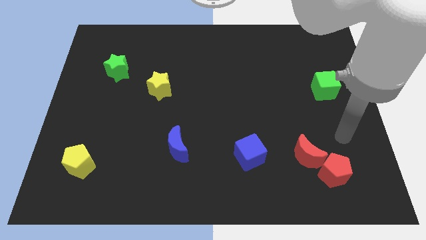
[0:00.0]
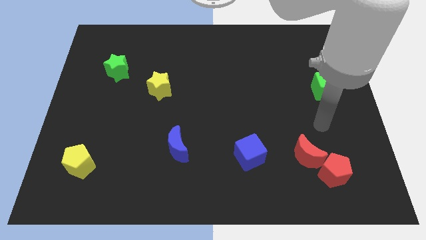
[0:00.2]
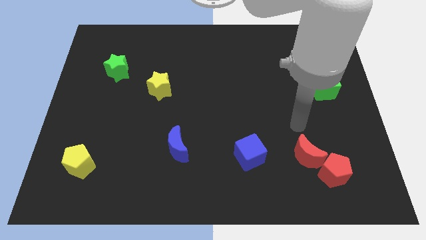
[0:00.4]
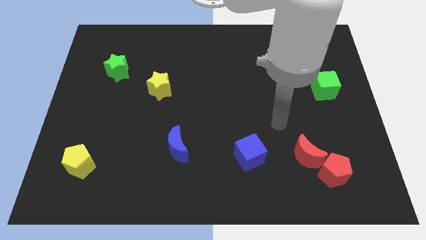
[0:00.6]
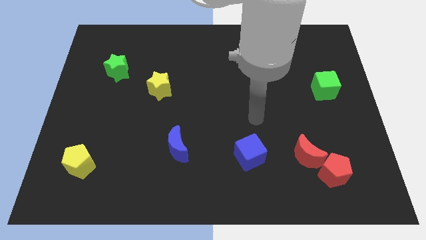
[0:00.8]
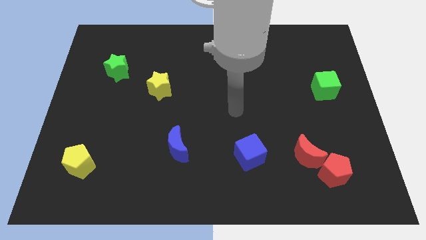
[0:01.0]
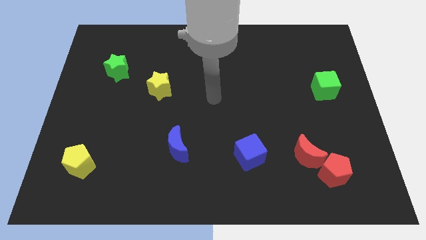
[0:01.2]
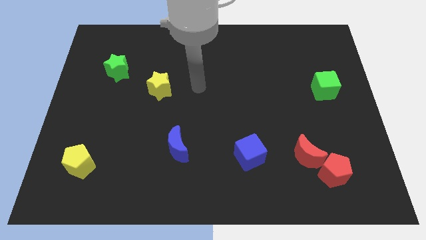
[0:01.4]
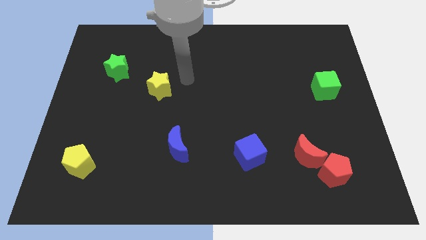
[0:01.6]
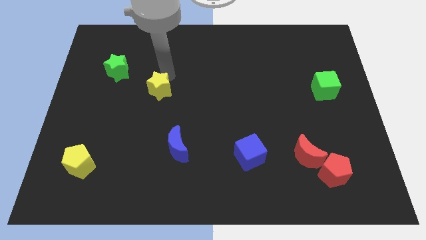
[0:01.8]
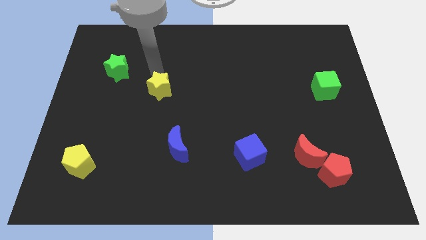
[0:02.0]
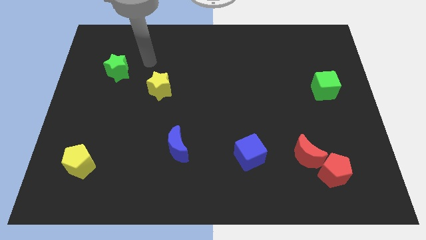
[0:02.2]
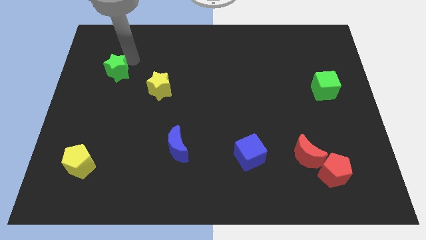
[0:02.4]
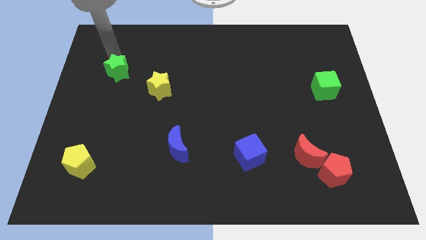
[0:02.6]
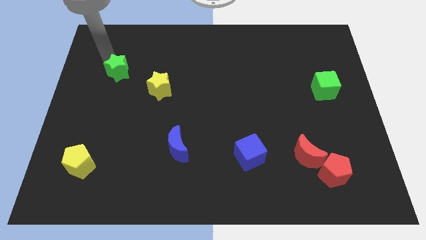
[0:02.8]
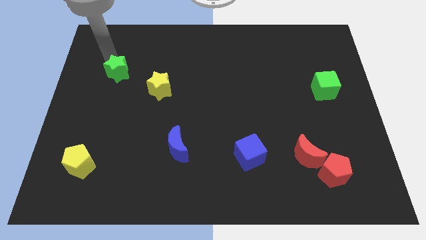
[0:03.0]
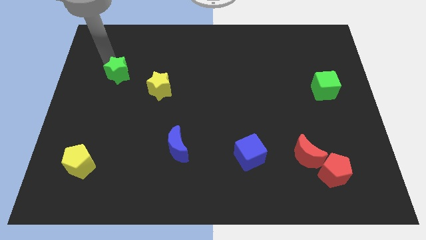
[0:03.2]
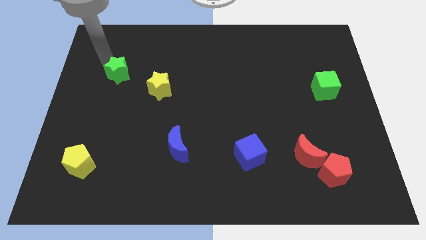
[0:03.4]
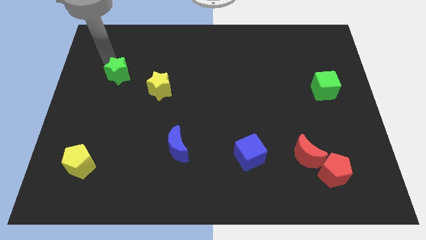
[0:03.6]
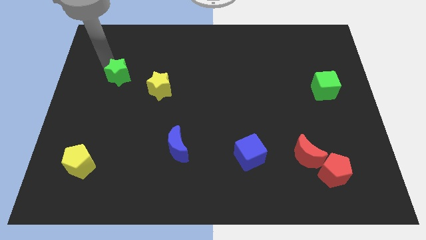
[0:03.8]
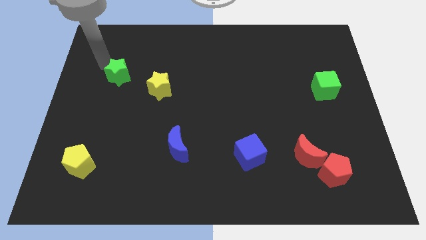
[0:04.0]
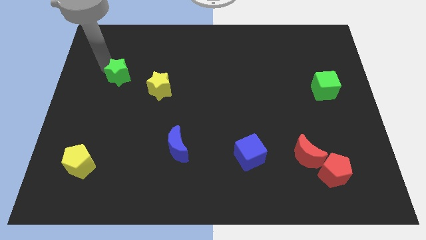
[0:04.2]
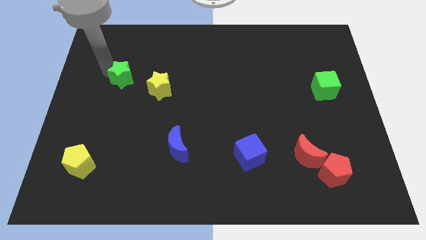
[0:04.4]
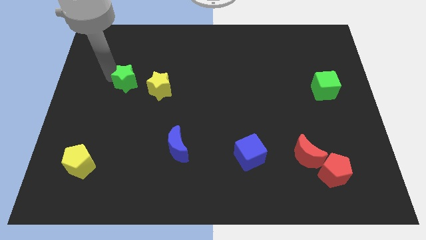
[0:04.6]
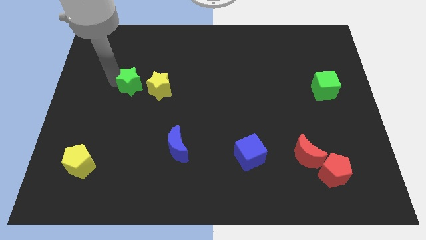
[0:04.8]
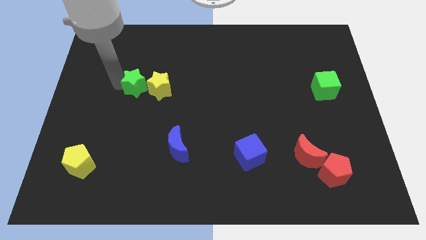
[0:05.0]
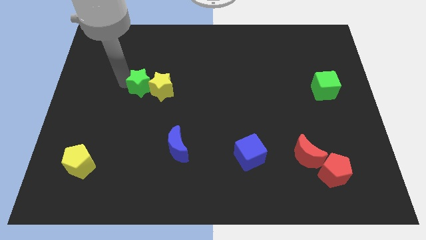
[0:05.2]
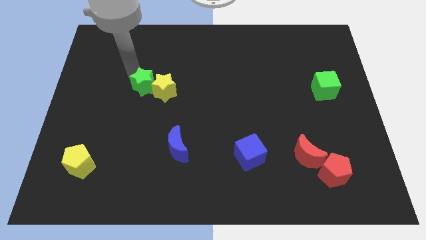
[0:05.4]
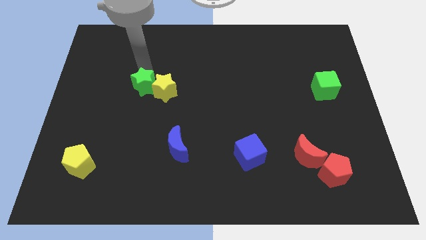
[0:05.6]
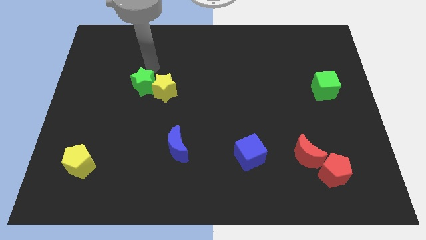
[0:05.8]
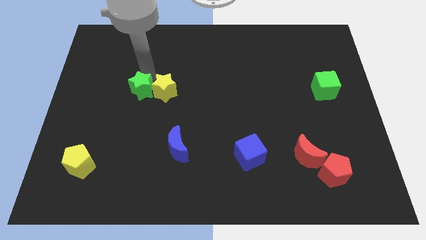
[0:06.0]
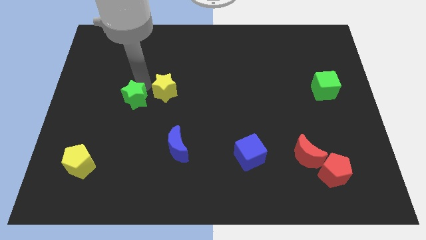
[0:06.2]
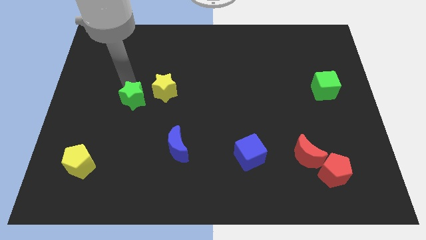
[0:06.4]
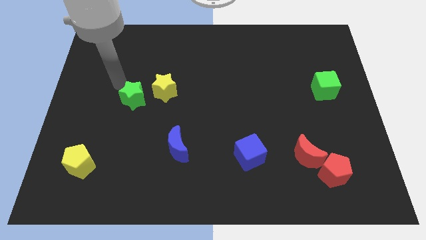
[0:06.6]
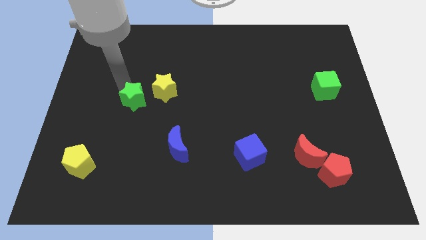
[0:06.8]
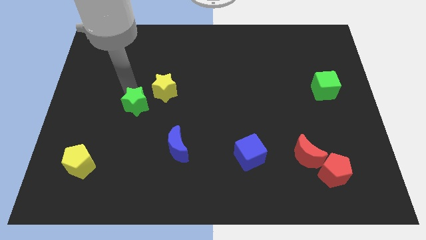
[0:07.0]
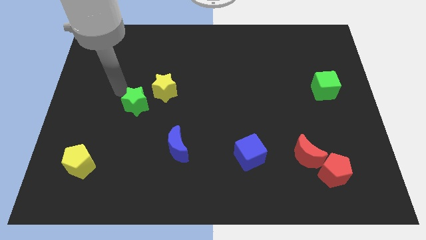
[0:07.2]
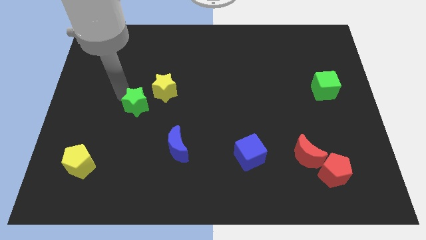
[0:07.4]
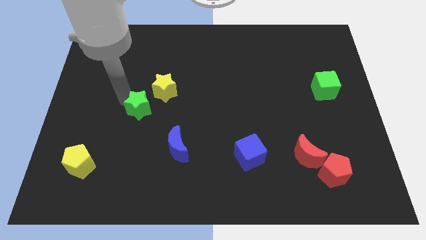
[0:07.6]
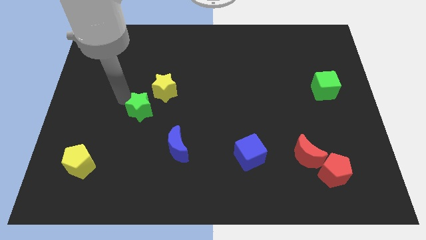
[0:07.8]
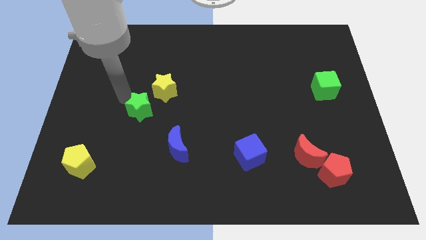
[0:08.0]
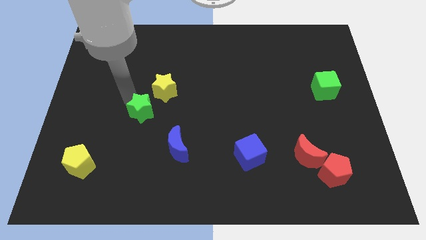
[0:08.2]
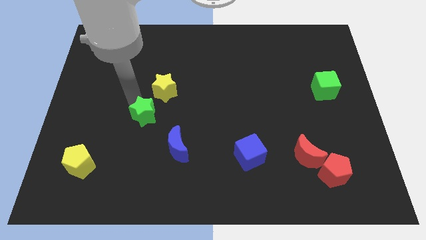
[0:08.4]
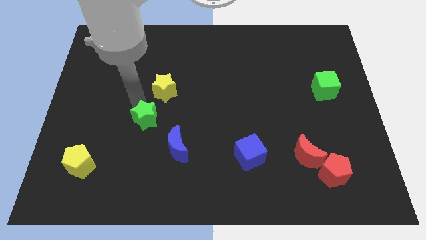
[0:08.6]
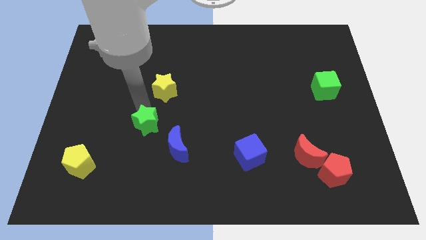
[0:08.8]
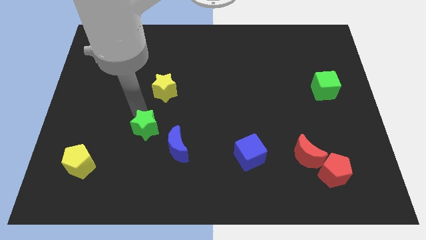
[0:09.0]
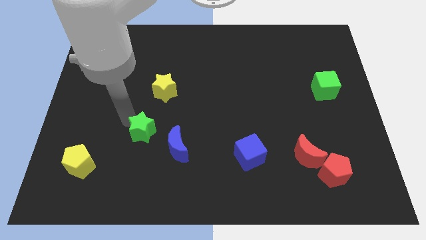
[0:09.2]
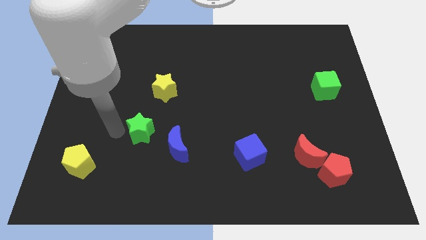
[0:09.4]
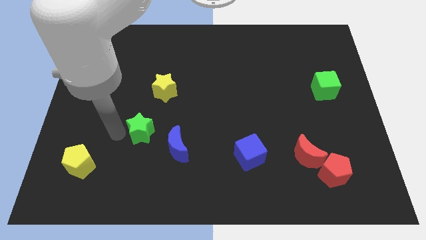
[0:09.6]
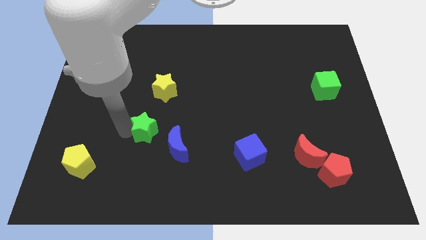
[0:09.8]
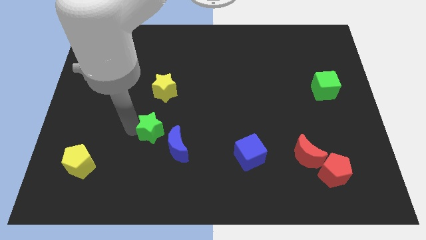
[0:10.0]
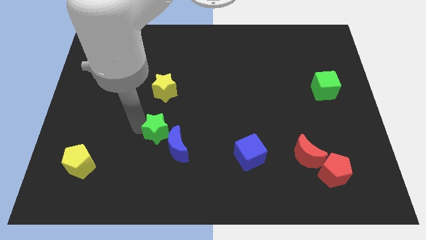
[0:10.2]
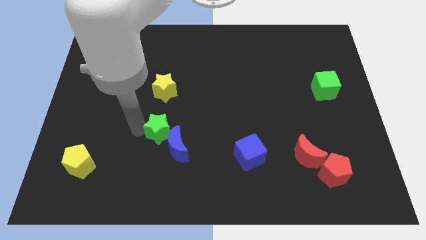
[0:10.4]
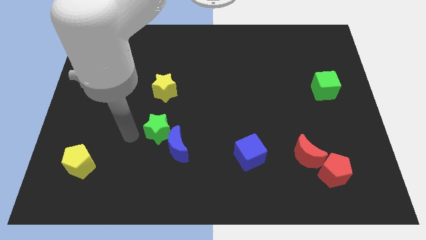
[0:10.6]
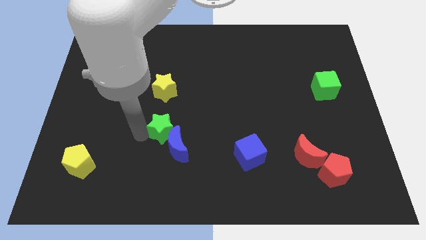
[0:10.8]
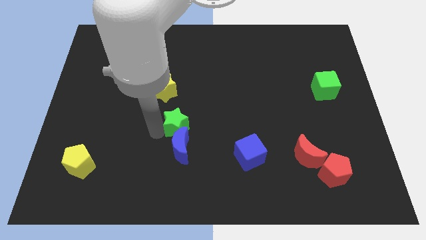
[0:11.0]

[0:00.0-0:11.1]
push the green star to the top right of the blue moon

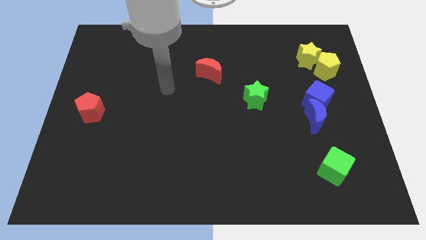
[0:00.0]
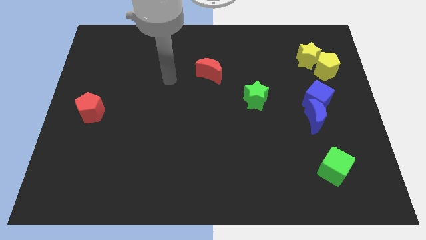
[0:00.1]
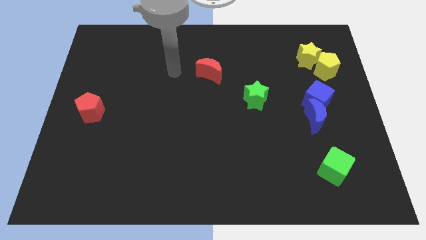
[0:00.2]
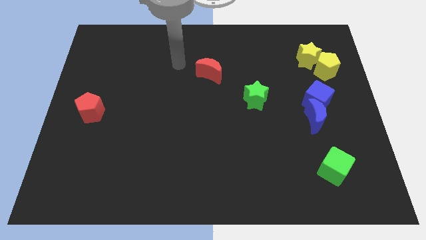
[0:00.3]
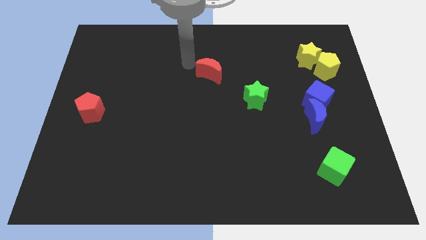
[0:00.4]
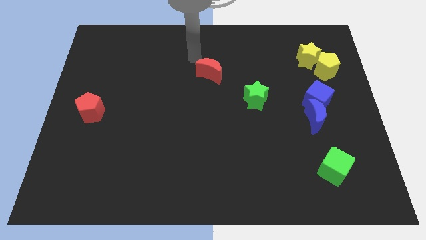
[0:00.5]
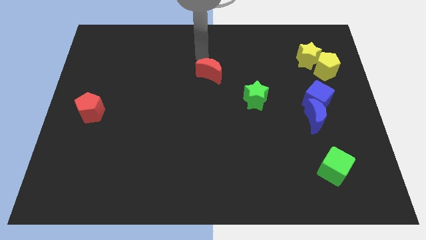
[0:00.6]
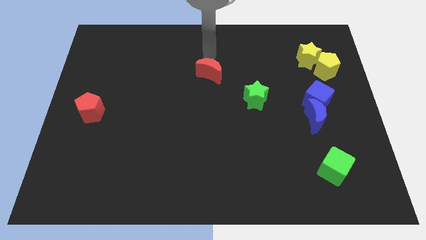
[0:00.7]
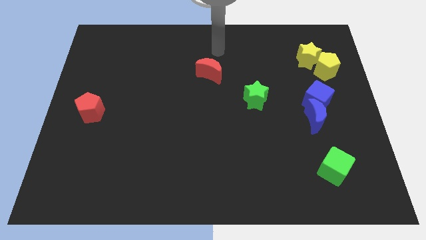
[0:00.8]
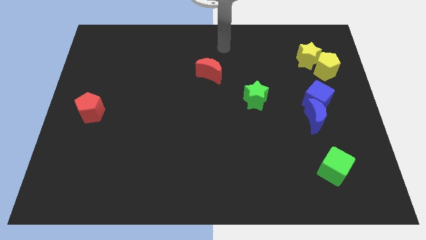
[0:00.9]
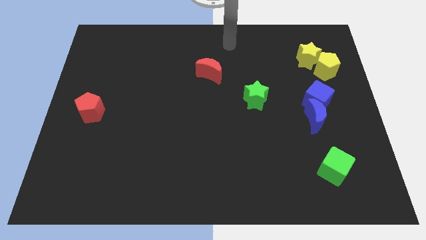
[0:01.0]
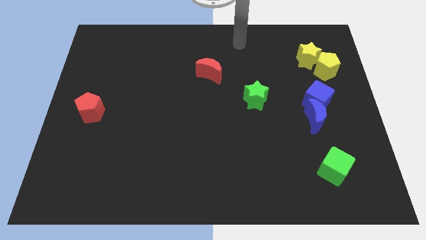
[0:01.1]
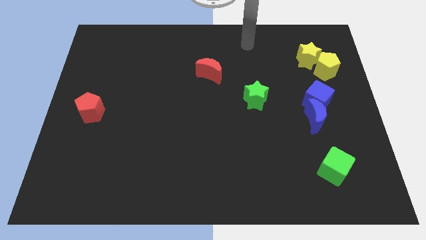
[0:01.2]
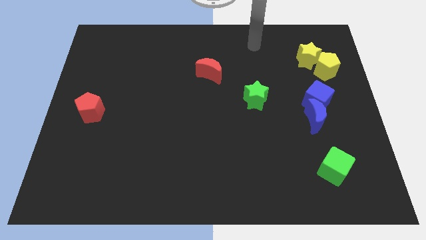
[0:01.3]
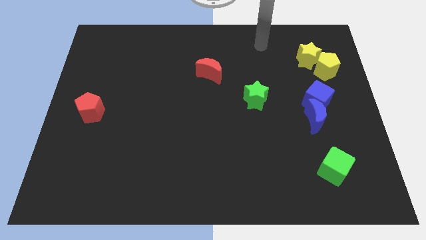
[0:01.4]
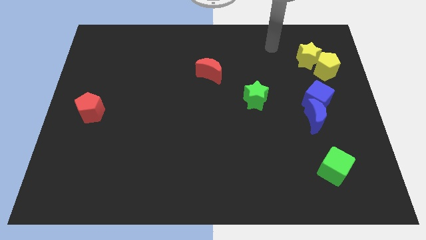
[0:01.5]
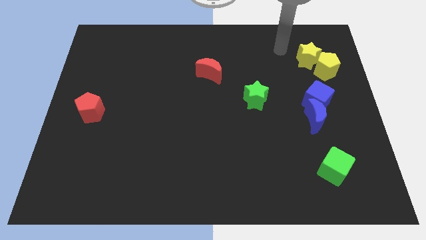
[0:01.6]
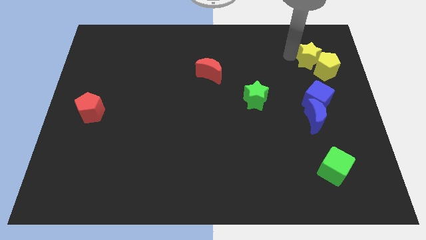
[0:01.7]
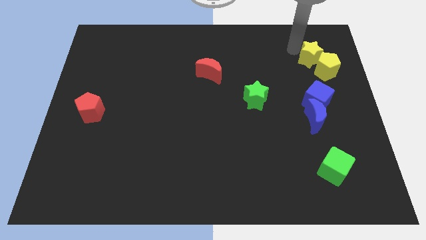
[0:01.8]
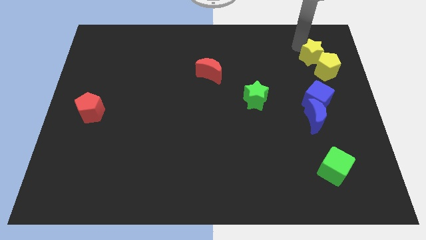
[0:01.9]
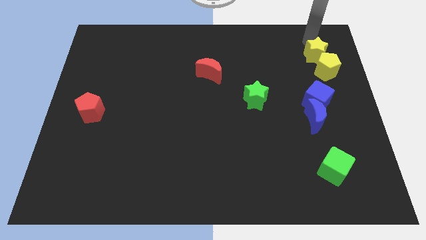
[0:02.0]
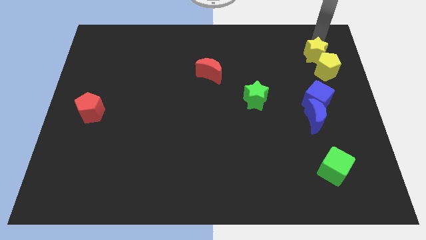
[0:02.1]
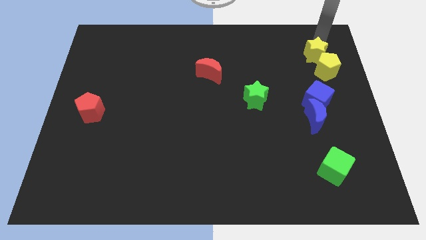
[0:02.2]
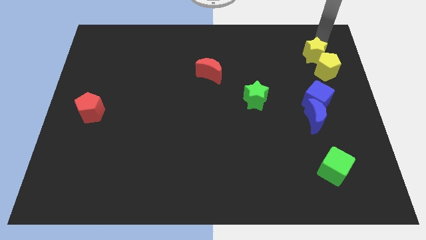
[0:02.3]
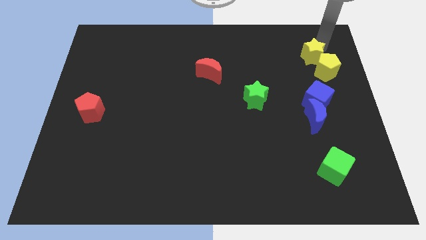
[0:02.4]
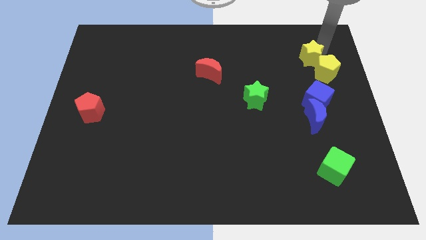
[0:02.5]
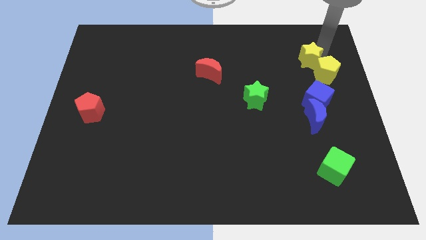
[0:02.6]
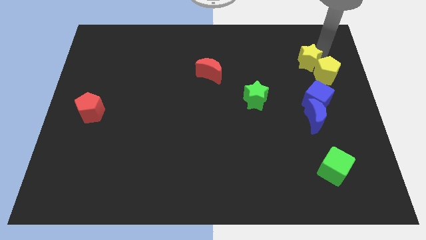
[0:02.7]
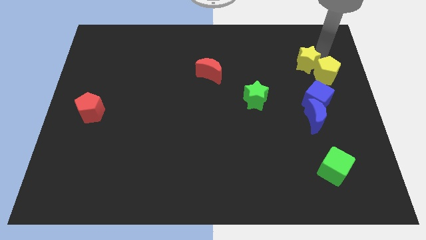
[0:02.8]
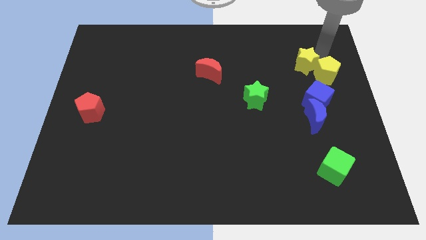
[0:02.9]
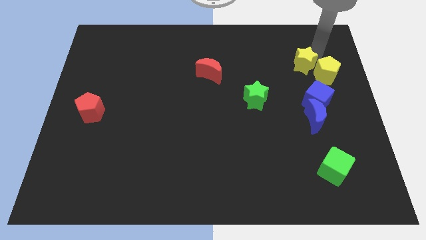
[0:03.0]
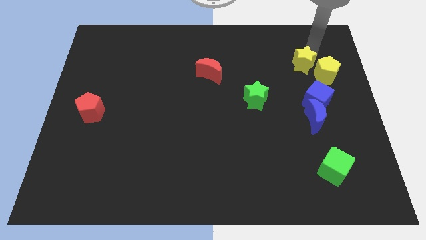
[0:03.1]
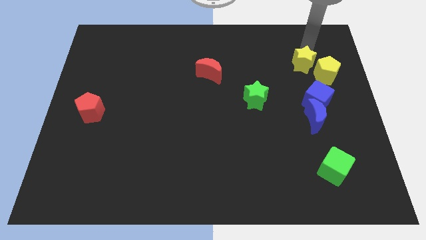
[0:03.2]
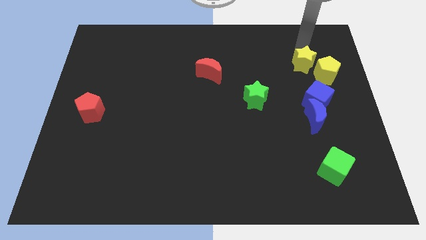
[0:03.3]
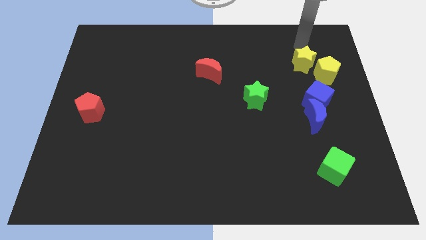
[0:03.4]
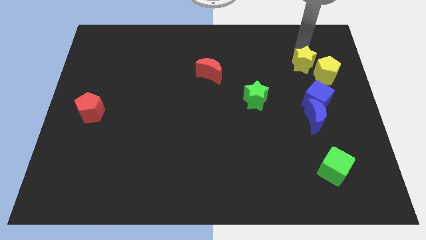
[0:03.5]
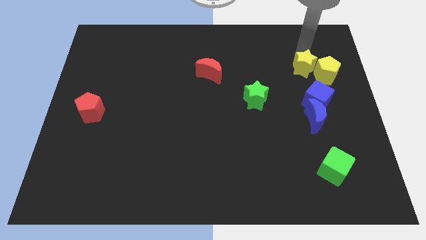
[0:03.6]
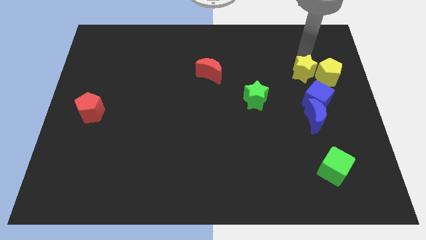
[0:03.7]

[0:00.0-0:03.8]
push the yellow star to the top side of the blue moon
